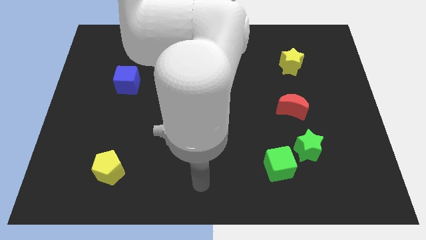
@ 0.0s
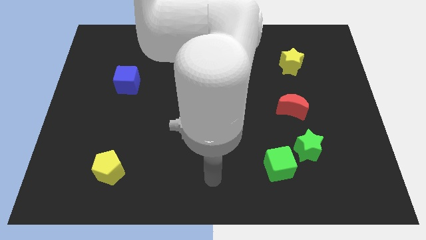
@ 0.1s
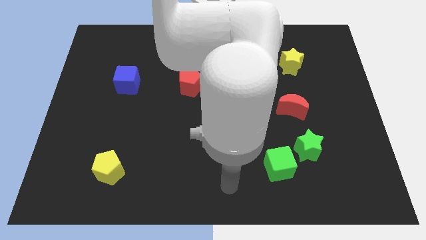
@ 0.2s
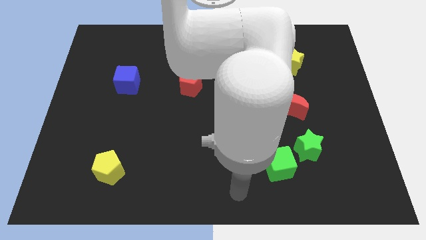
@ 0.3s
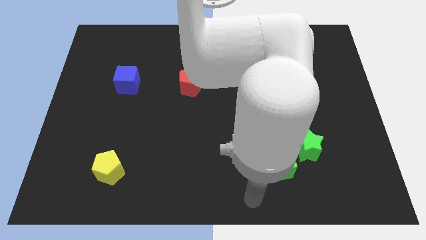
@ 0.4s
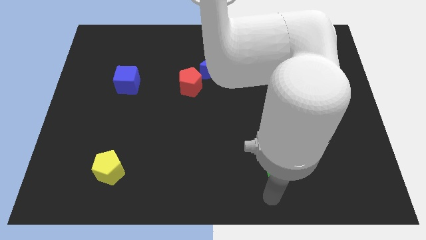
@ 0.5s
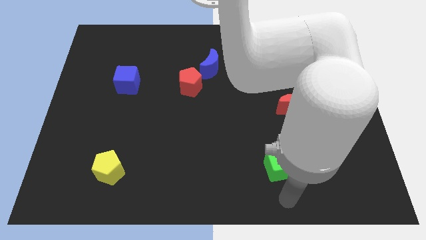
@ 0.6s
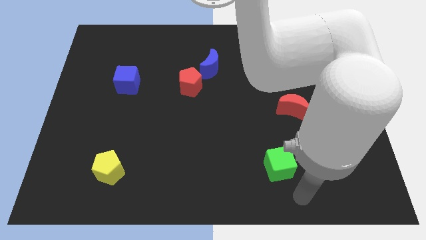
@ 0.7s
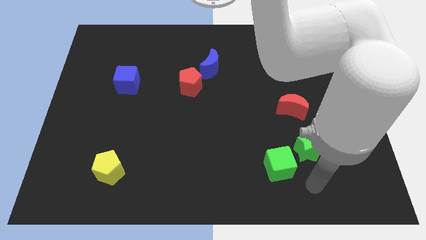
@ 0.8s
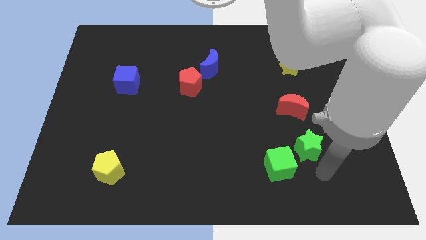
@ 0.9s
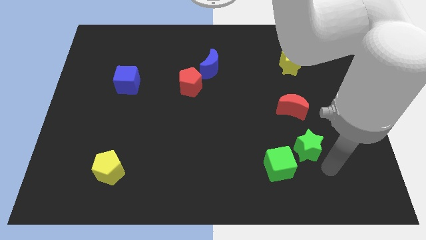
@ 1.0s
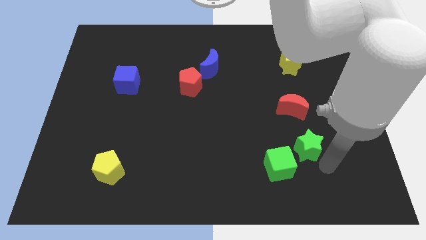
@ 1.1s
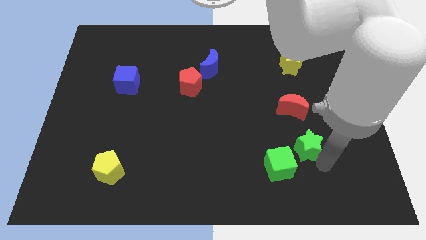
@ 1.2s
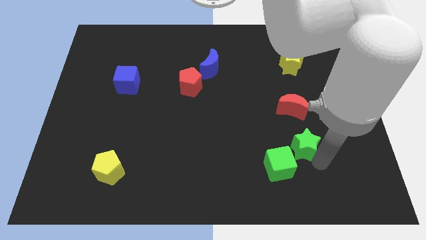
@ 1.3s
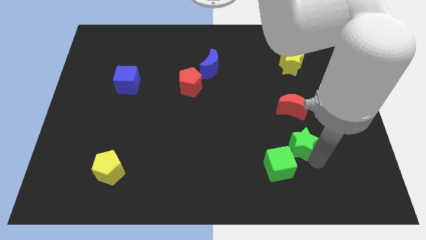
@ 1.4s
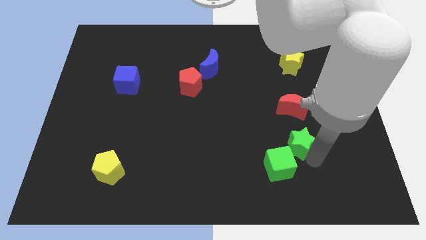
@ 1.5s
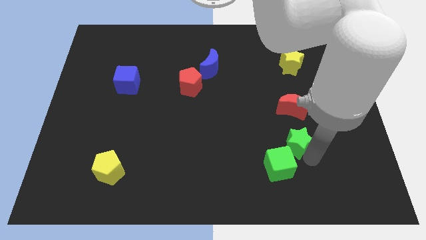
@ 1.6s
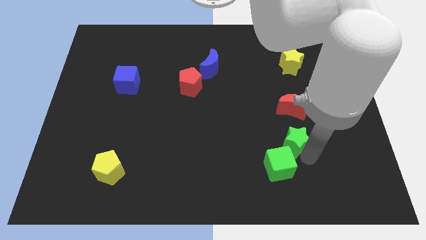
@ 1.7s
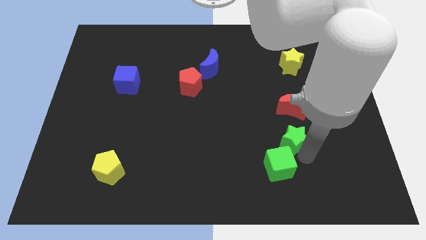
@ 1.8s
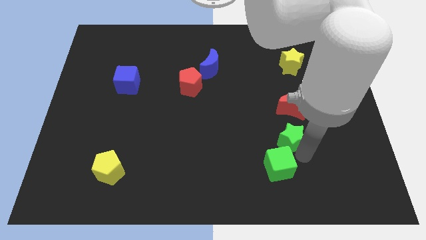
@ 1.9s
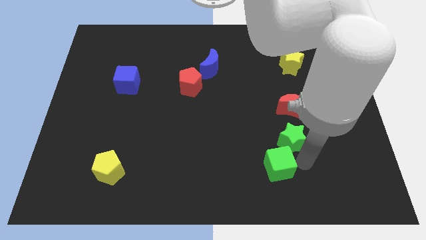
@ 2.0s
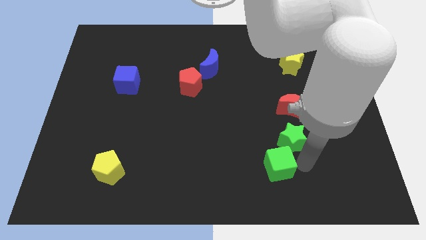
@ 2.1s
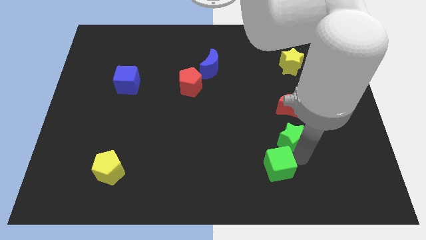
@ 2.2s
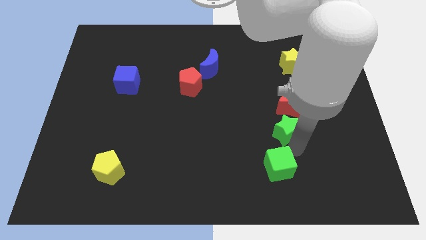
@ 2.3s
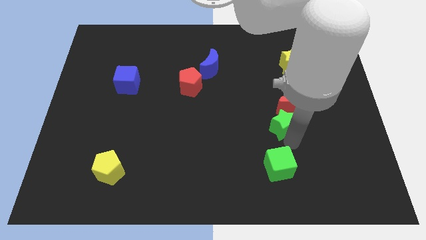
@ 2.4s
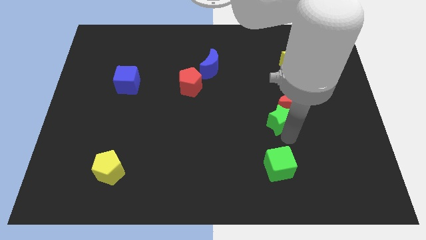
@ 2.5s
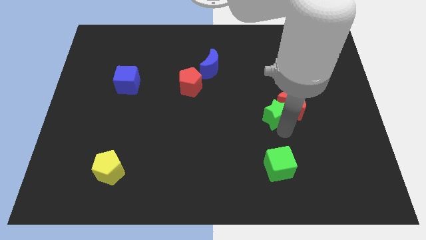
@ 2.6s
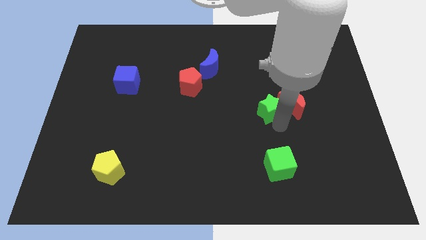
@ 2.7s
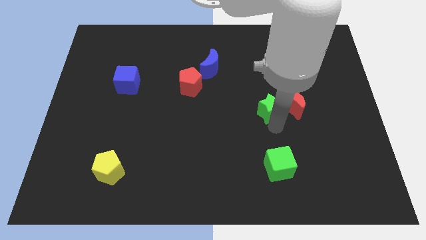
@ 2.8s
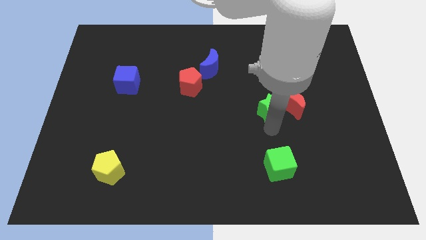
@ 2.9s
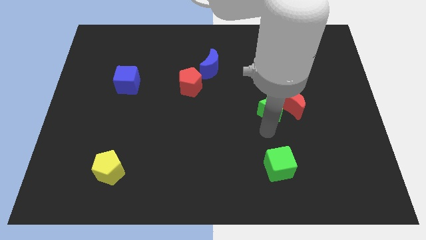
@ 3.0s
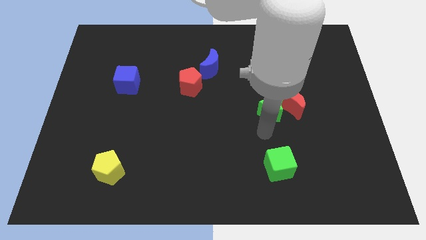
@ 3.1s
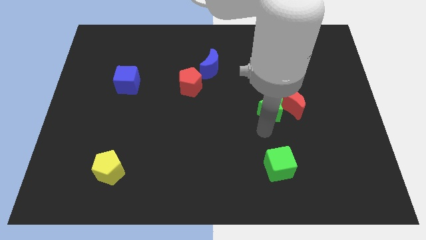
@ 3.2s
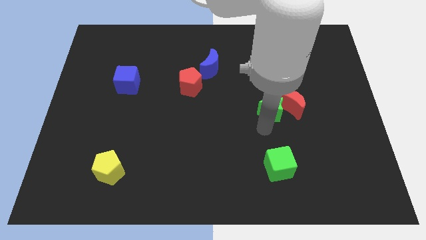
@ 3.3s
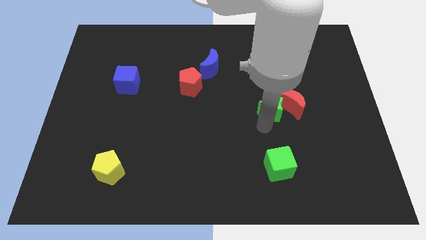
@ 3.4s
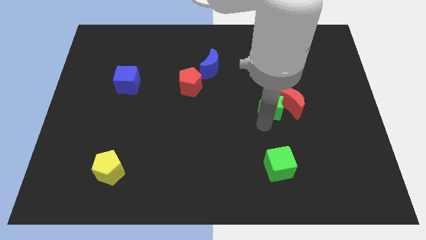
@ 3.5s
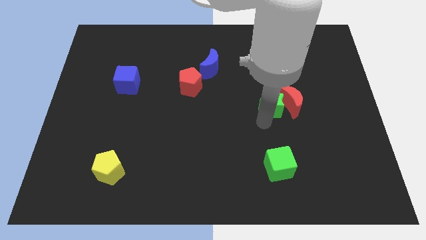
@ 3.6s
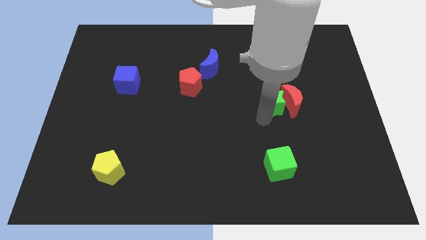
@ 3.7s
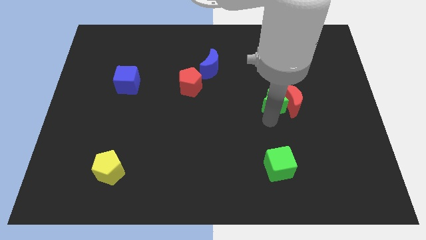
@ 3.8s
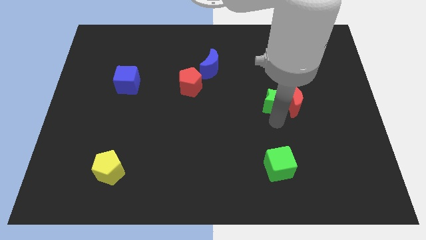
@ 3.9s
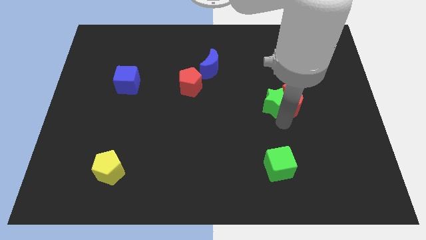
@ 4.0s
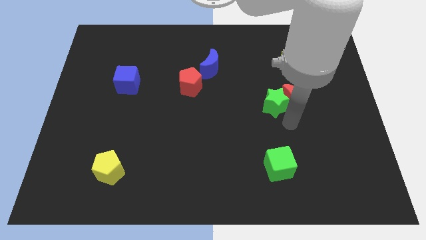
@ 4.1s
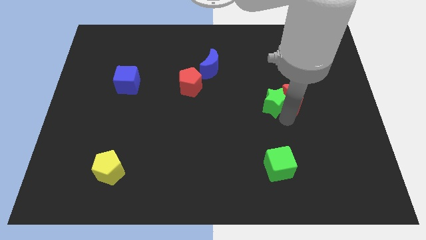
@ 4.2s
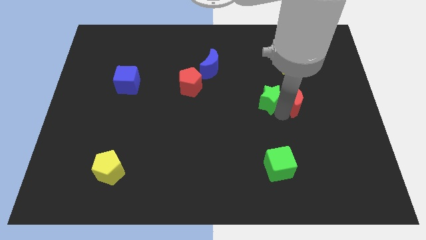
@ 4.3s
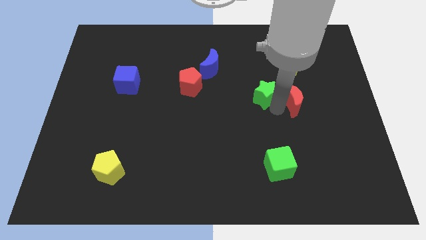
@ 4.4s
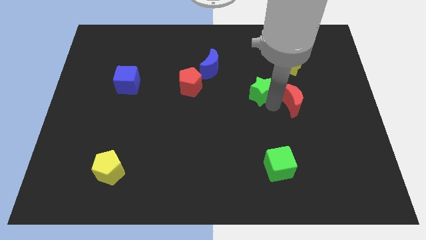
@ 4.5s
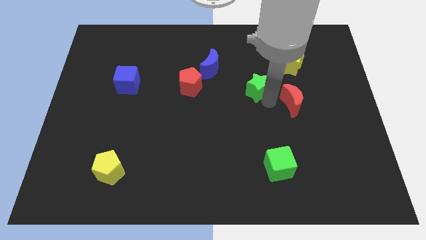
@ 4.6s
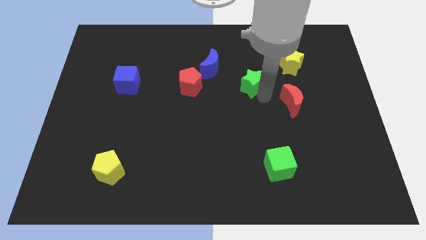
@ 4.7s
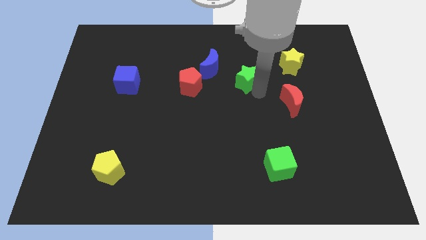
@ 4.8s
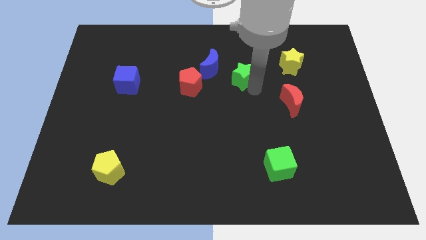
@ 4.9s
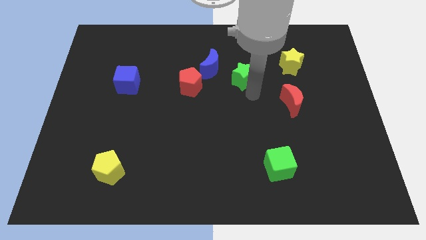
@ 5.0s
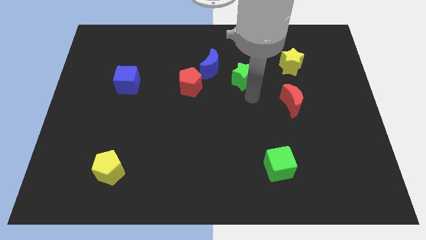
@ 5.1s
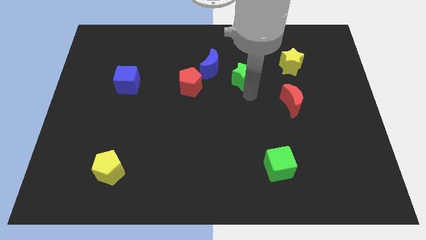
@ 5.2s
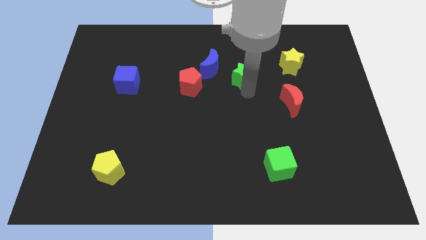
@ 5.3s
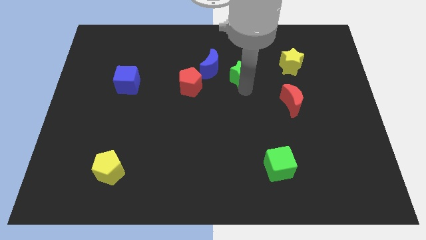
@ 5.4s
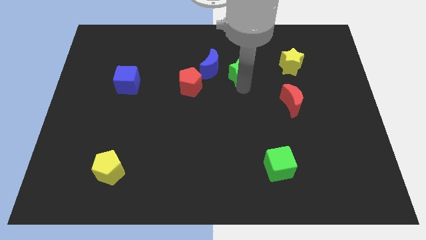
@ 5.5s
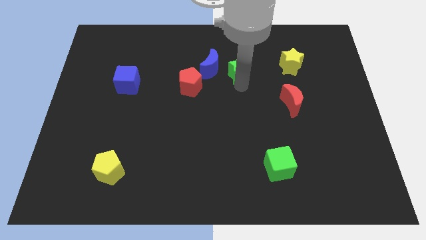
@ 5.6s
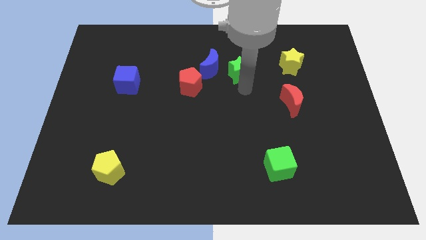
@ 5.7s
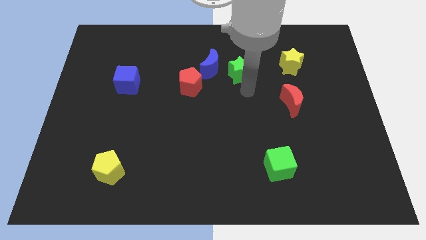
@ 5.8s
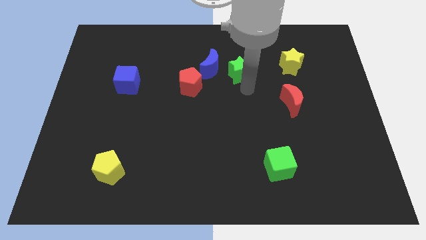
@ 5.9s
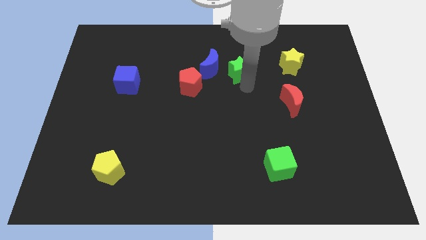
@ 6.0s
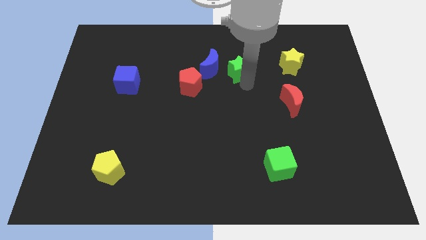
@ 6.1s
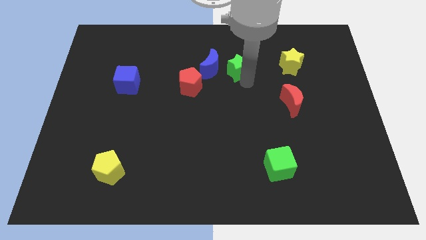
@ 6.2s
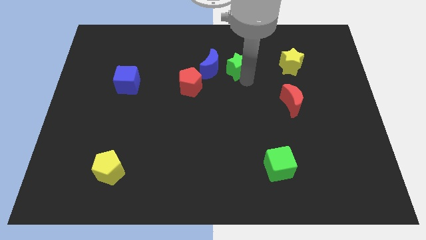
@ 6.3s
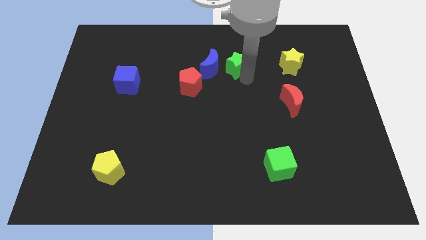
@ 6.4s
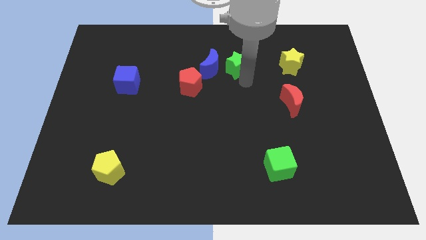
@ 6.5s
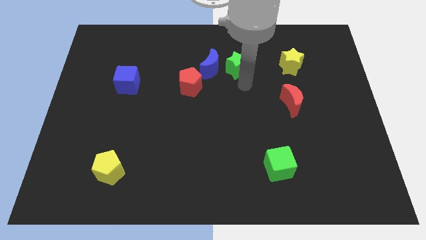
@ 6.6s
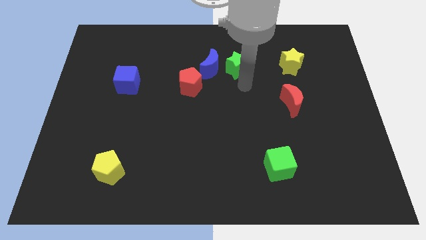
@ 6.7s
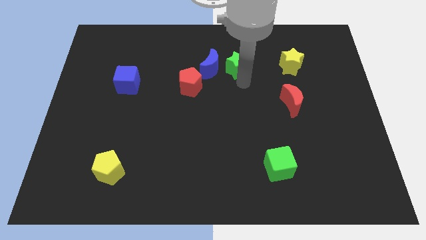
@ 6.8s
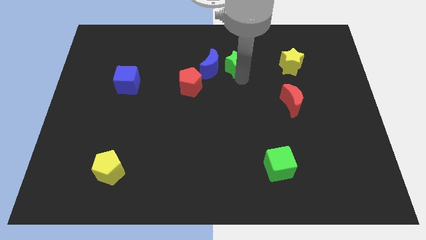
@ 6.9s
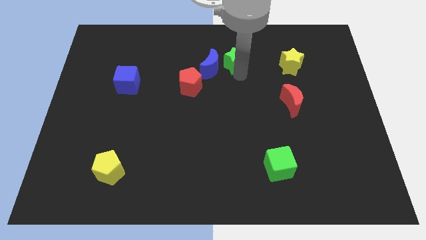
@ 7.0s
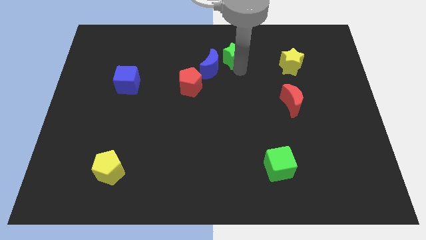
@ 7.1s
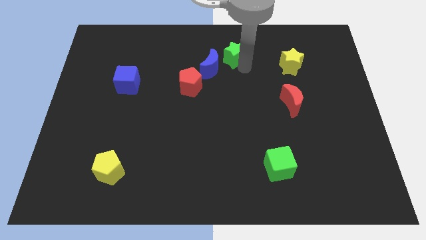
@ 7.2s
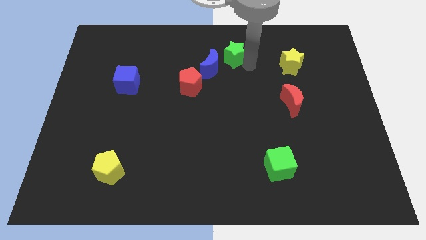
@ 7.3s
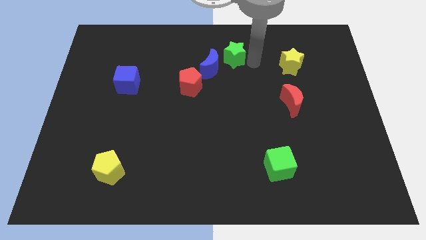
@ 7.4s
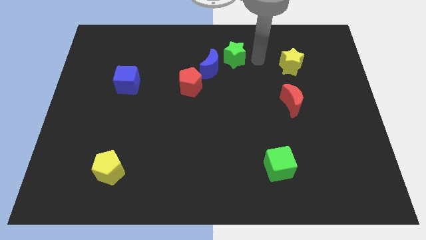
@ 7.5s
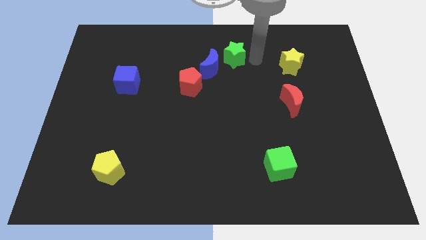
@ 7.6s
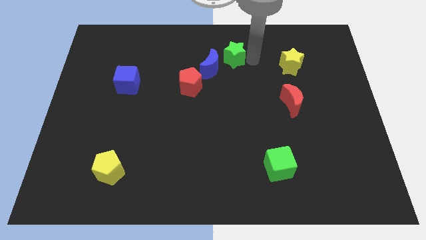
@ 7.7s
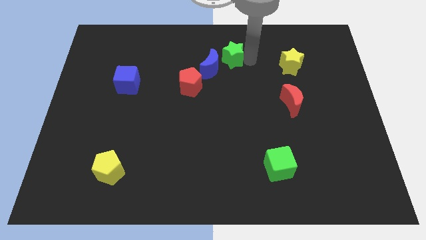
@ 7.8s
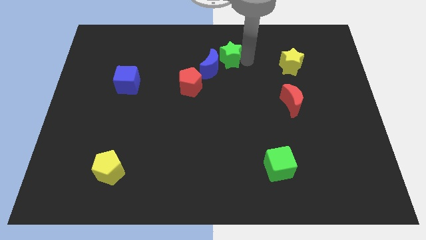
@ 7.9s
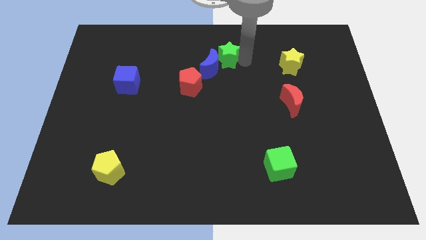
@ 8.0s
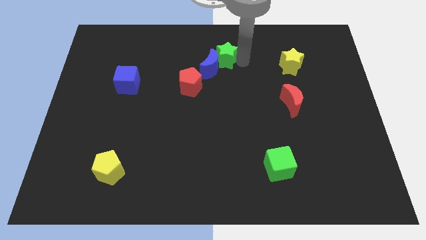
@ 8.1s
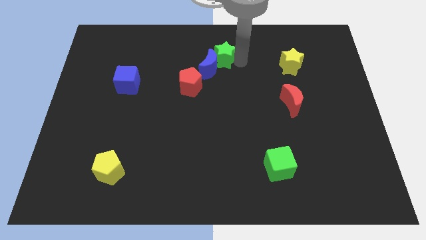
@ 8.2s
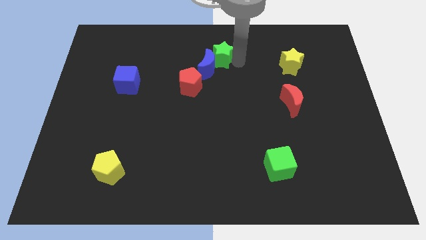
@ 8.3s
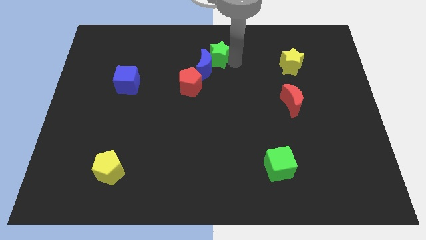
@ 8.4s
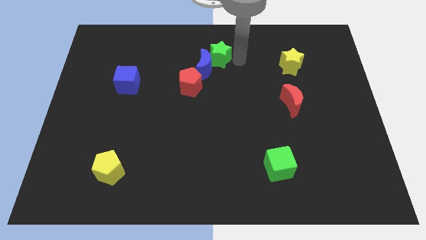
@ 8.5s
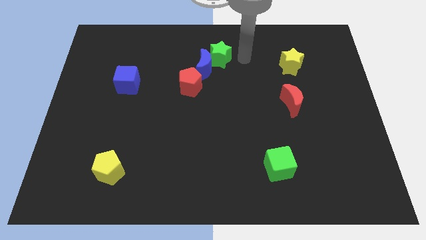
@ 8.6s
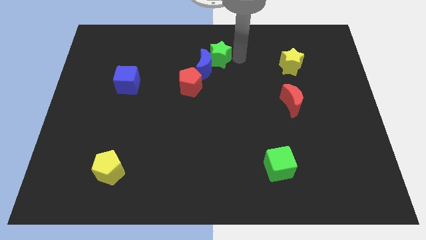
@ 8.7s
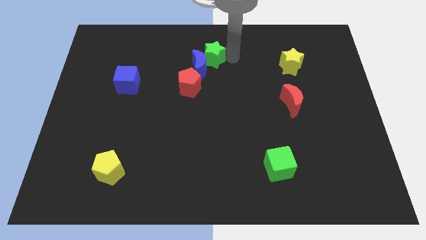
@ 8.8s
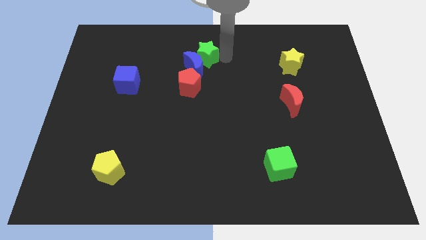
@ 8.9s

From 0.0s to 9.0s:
slide the green star above the red pentagon
